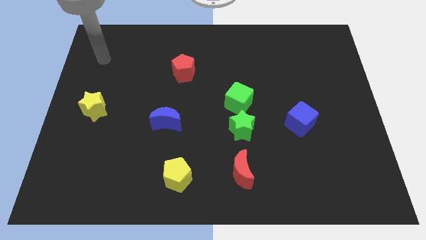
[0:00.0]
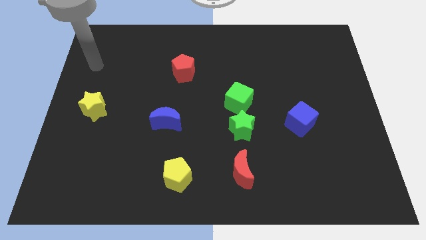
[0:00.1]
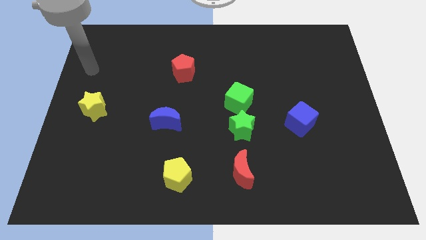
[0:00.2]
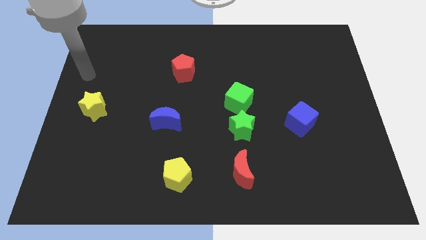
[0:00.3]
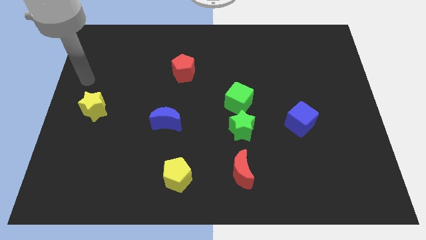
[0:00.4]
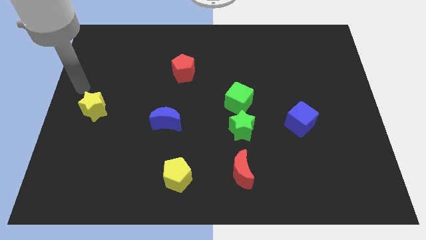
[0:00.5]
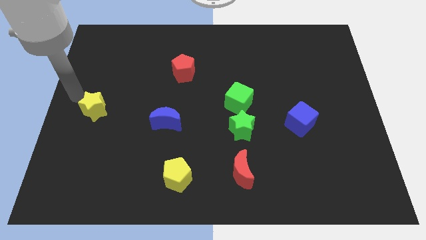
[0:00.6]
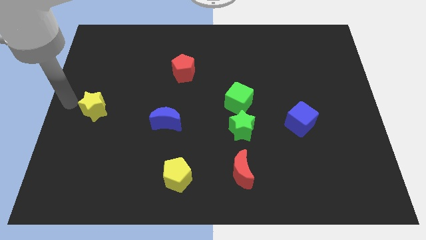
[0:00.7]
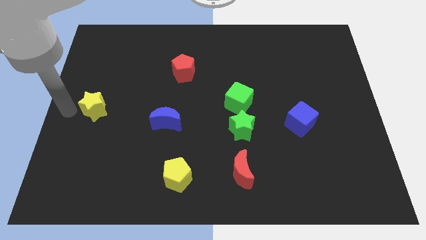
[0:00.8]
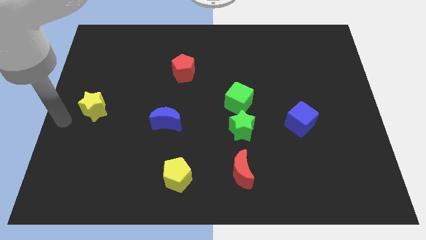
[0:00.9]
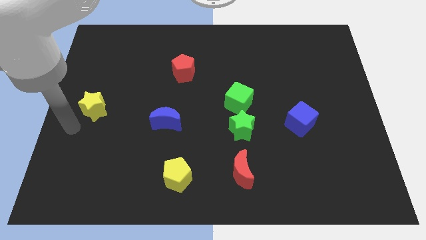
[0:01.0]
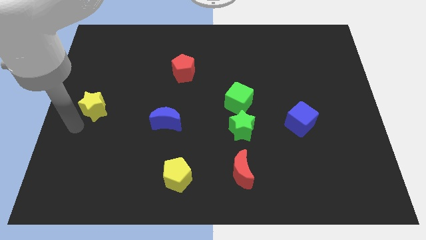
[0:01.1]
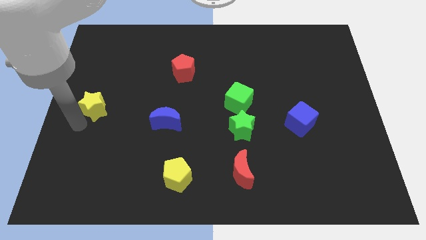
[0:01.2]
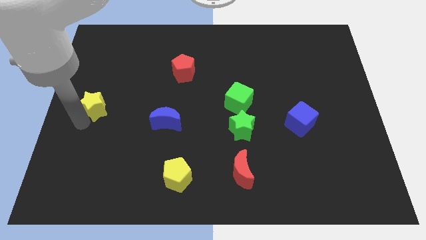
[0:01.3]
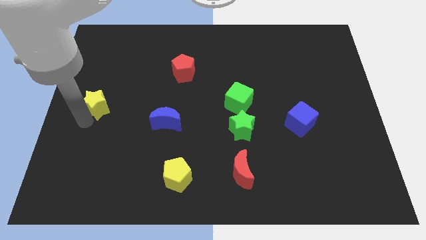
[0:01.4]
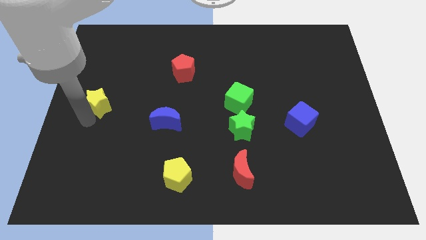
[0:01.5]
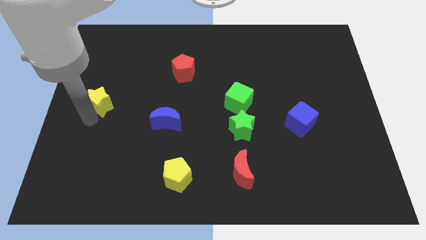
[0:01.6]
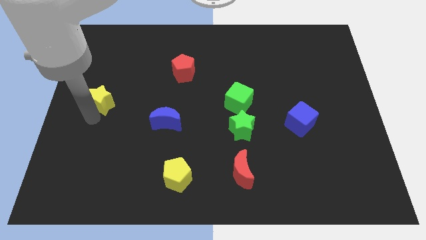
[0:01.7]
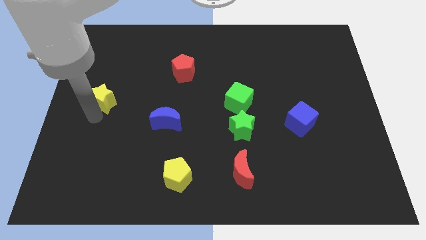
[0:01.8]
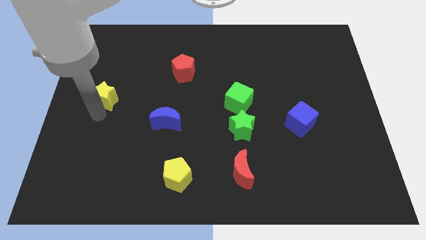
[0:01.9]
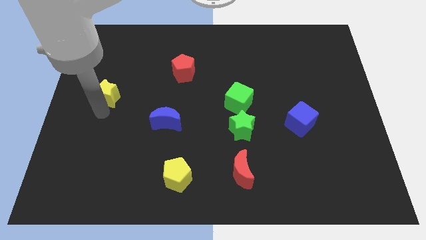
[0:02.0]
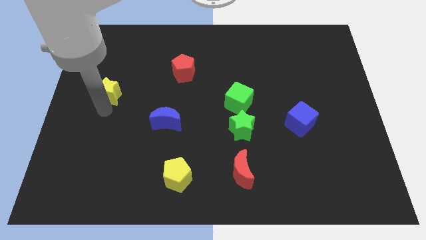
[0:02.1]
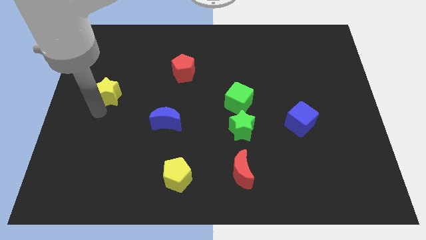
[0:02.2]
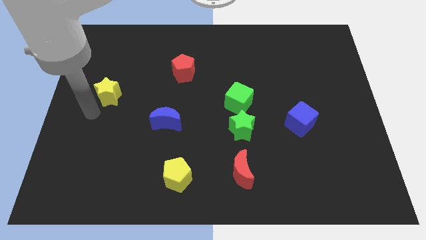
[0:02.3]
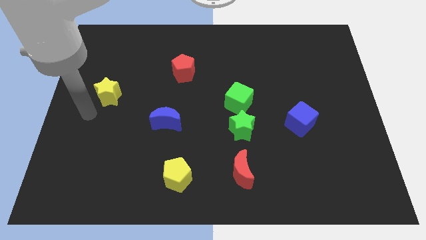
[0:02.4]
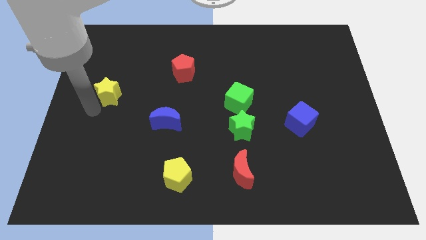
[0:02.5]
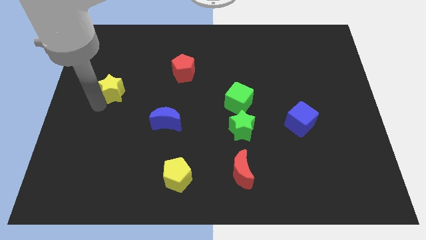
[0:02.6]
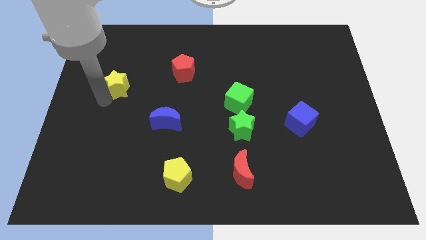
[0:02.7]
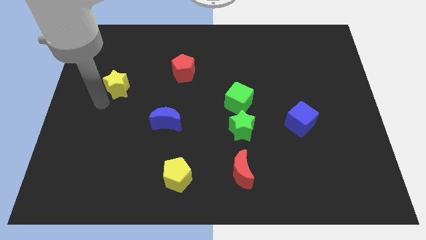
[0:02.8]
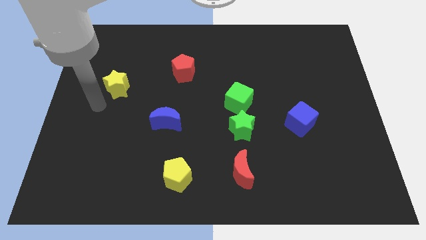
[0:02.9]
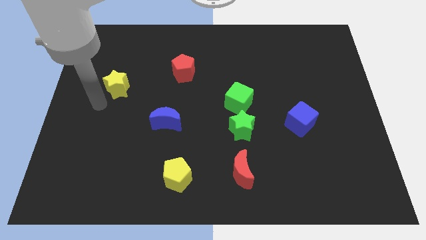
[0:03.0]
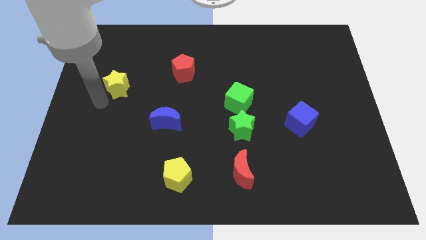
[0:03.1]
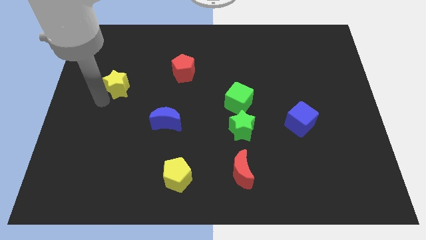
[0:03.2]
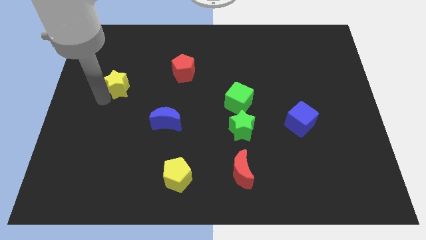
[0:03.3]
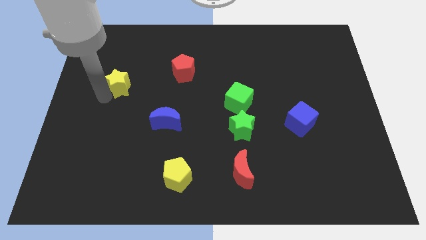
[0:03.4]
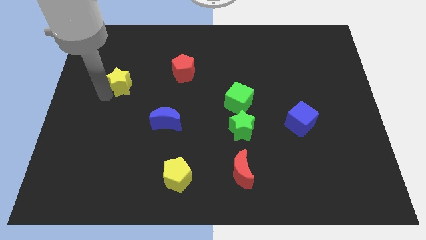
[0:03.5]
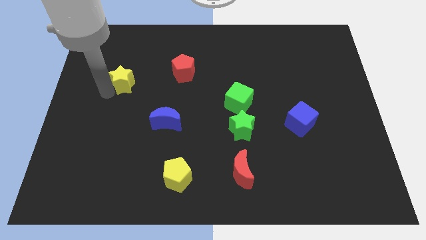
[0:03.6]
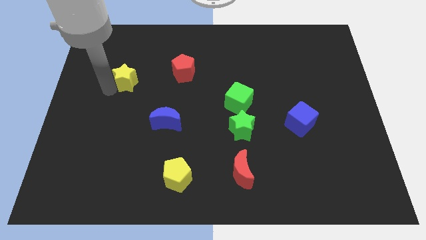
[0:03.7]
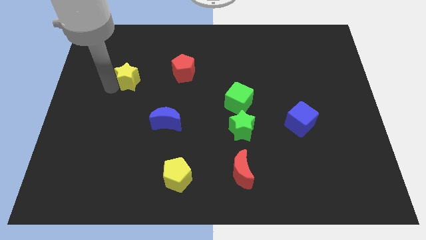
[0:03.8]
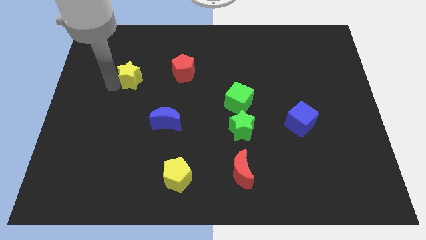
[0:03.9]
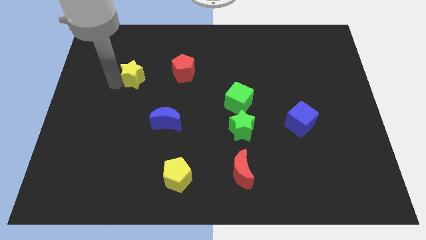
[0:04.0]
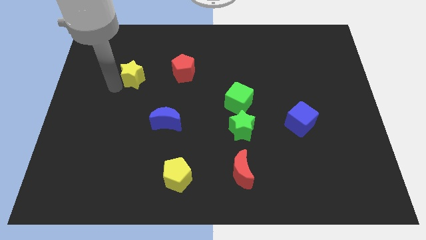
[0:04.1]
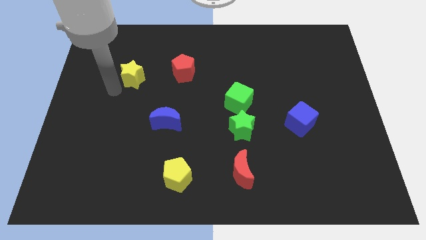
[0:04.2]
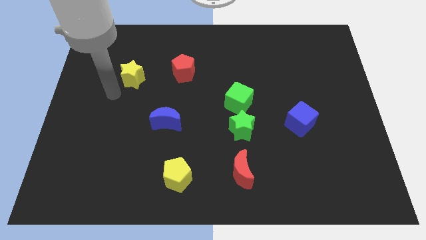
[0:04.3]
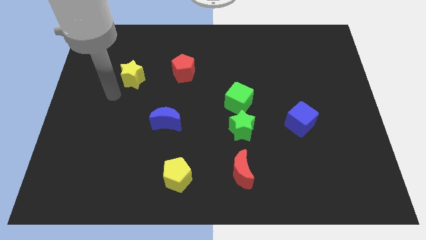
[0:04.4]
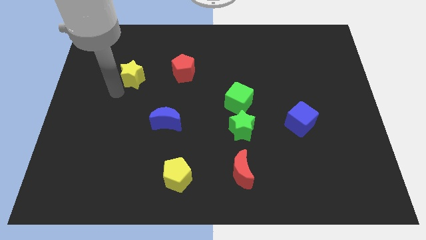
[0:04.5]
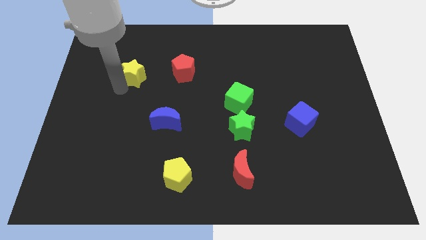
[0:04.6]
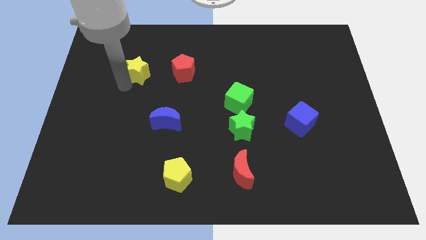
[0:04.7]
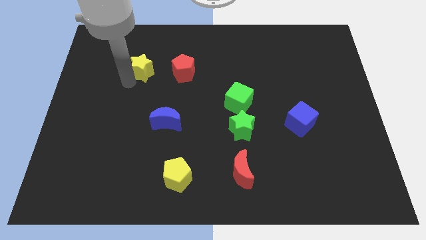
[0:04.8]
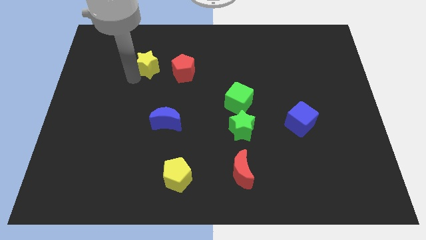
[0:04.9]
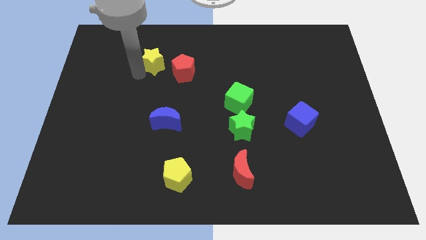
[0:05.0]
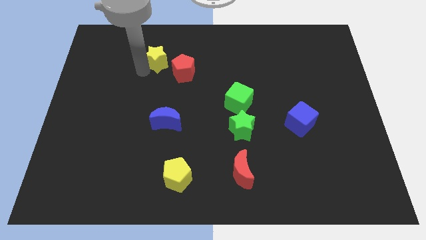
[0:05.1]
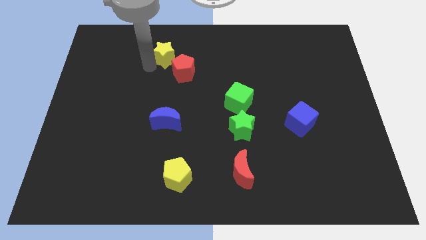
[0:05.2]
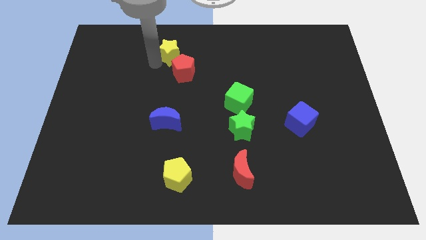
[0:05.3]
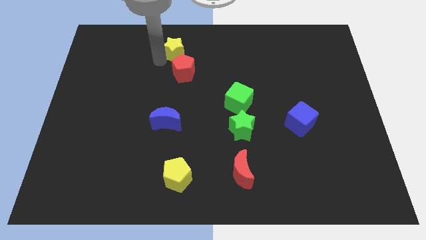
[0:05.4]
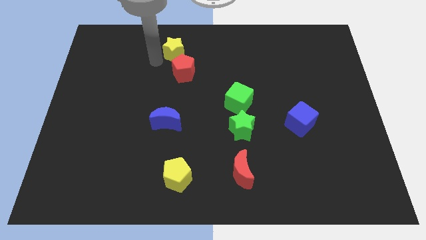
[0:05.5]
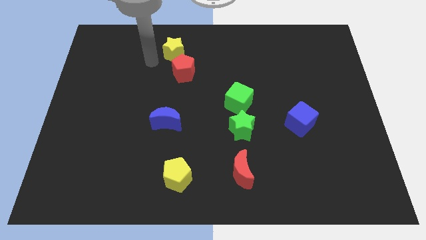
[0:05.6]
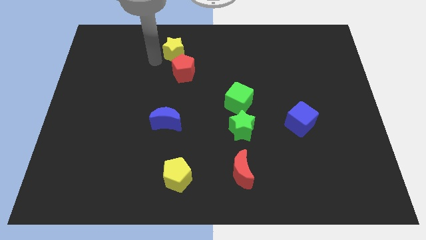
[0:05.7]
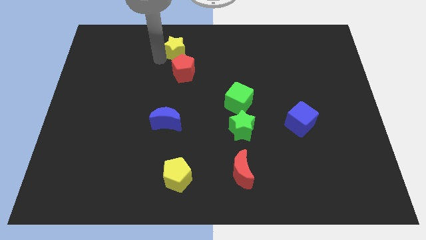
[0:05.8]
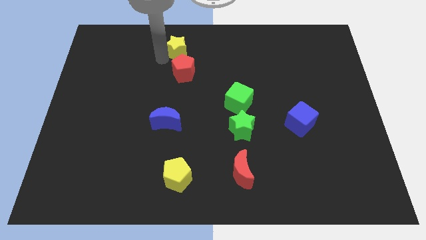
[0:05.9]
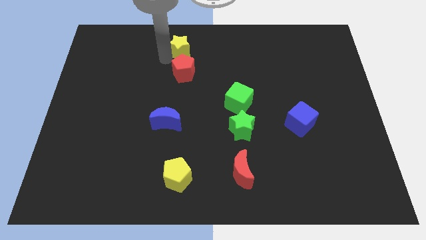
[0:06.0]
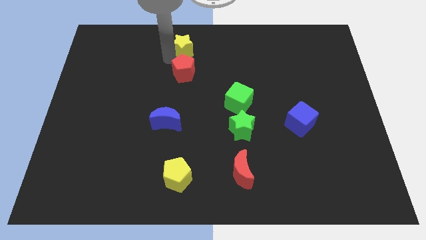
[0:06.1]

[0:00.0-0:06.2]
slide the yellow star to the top side
